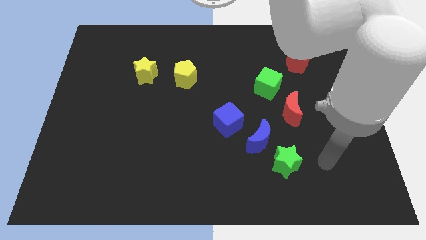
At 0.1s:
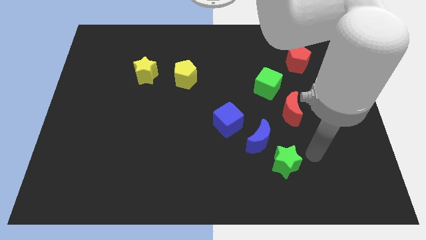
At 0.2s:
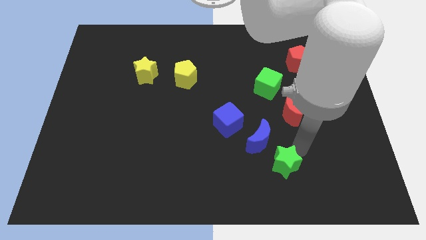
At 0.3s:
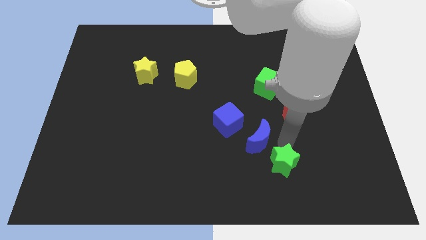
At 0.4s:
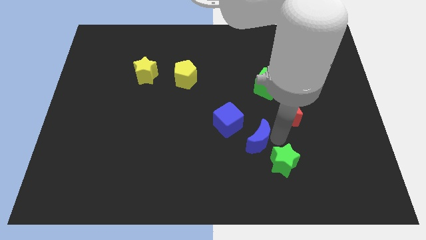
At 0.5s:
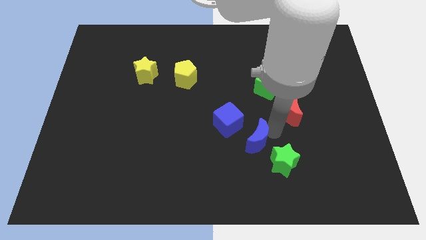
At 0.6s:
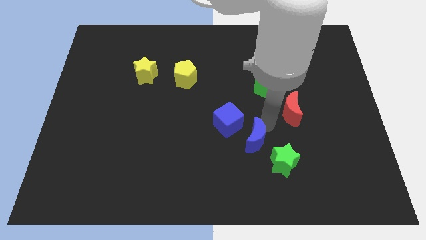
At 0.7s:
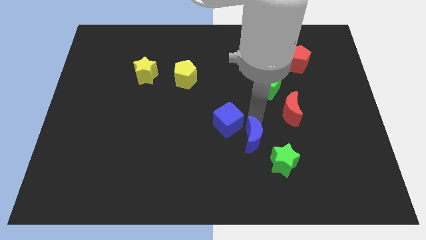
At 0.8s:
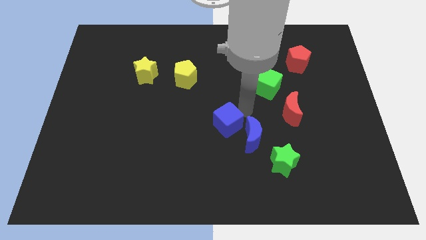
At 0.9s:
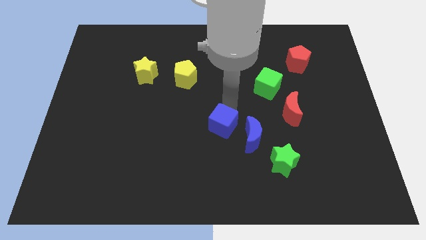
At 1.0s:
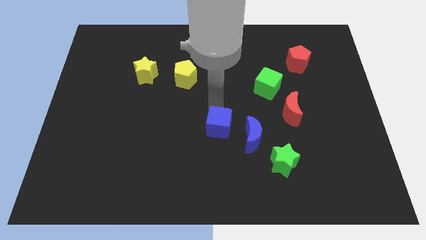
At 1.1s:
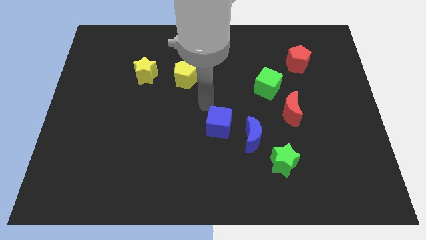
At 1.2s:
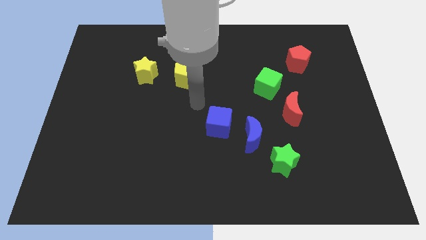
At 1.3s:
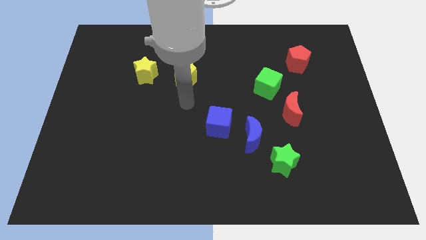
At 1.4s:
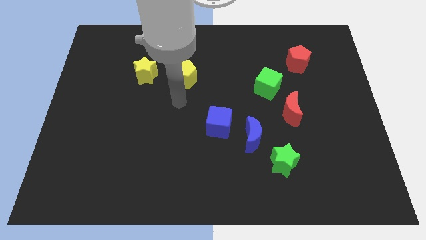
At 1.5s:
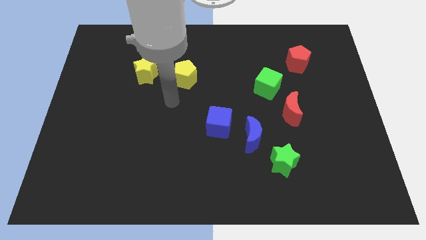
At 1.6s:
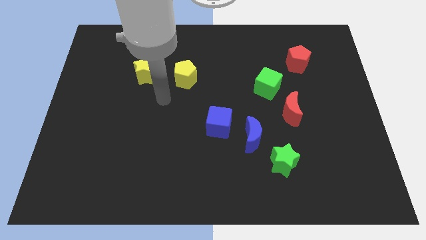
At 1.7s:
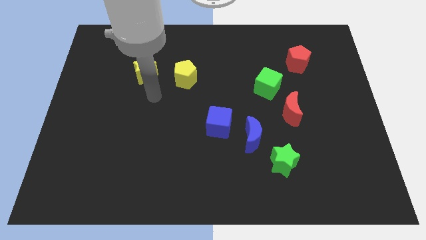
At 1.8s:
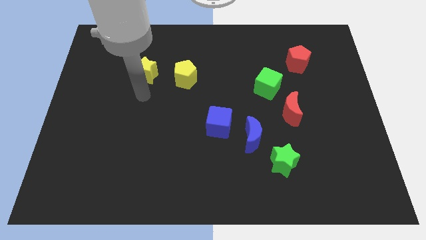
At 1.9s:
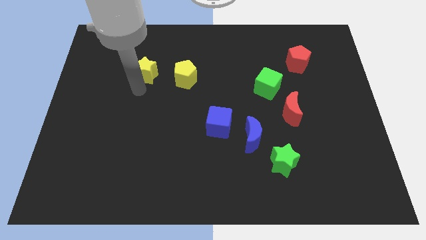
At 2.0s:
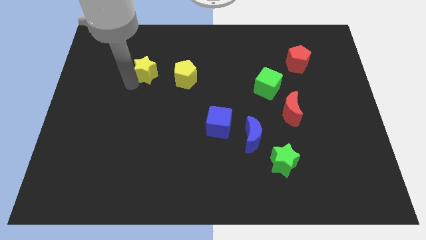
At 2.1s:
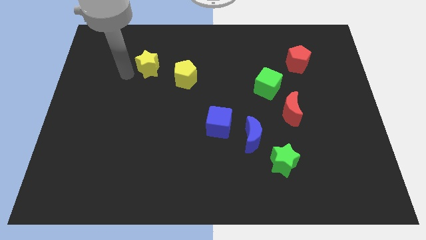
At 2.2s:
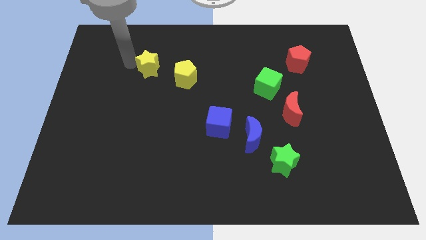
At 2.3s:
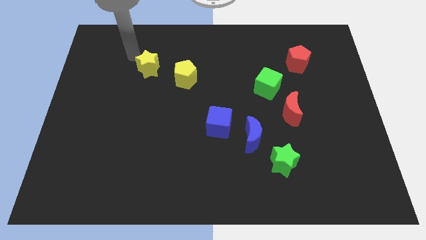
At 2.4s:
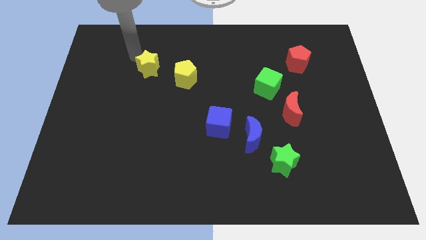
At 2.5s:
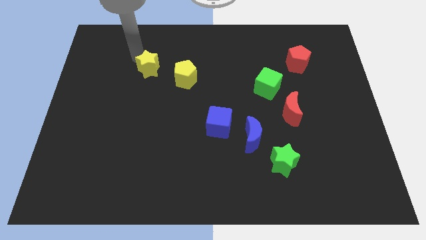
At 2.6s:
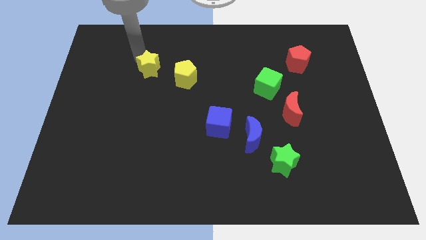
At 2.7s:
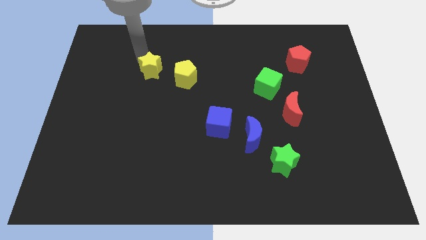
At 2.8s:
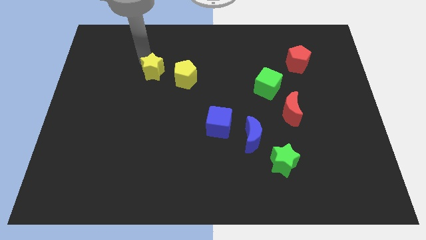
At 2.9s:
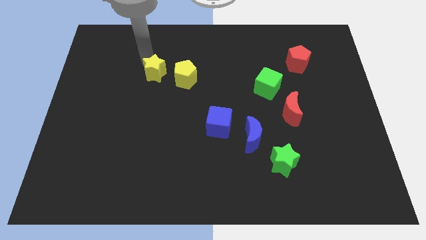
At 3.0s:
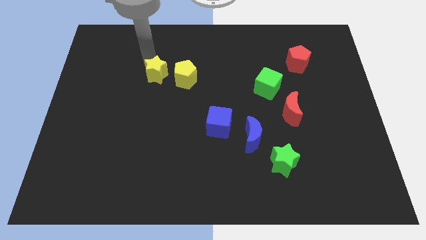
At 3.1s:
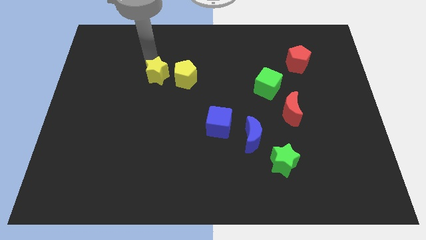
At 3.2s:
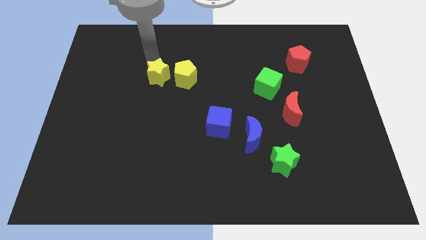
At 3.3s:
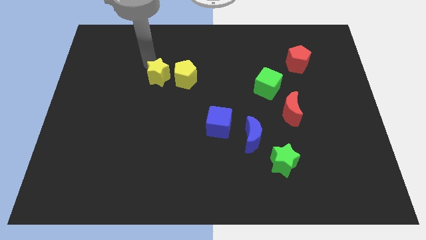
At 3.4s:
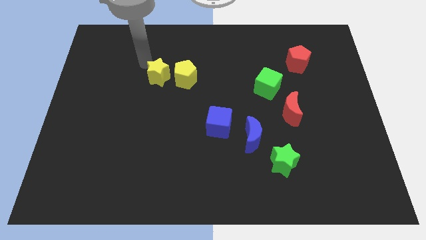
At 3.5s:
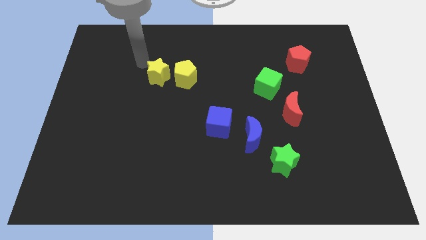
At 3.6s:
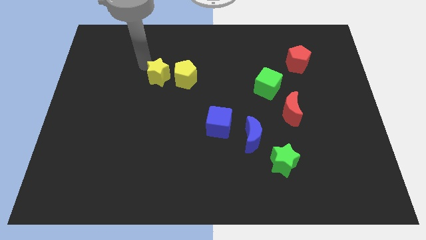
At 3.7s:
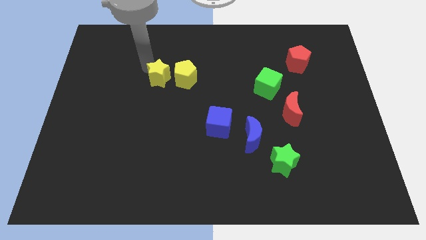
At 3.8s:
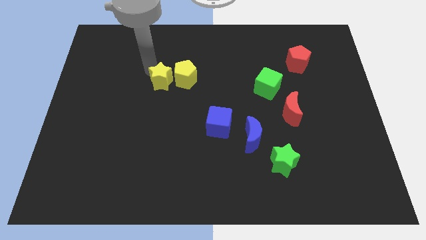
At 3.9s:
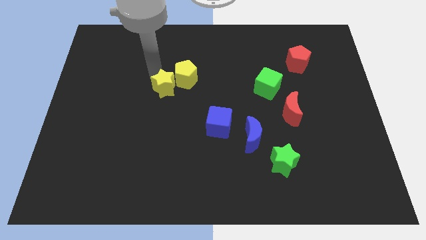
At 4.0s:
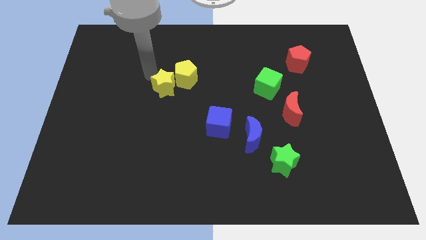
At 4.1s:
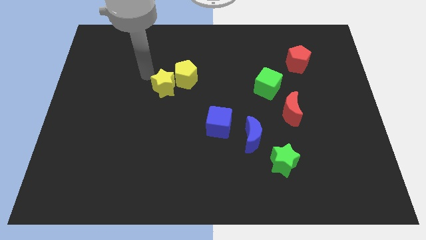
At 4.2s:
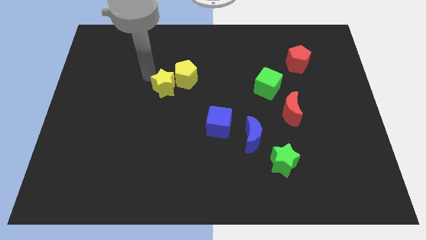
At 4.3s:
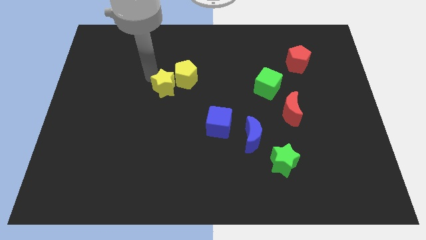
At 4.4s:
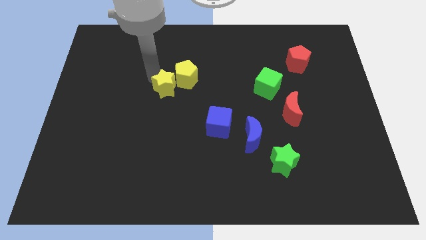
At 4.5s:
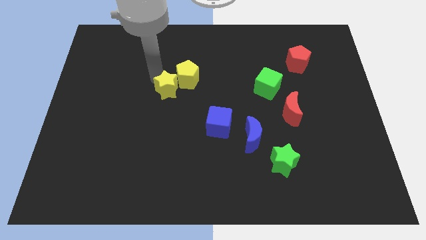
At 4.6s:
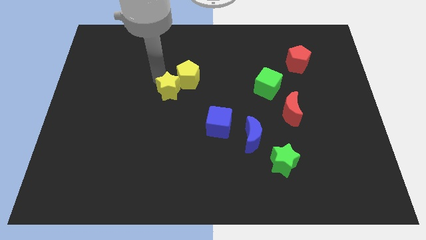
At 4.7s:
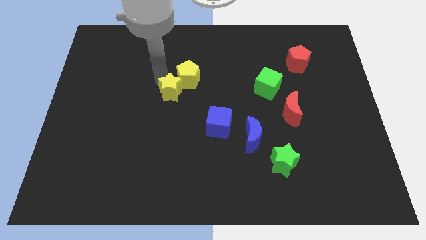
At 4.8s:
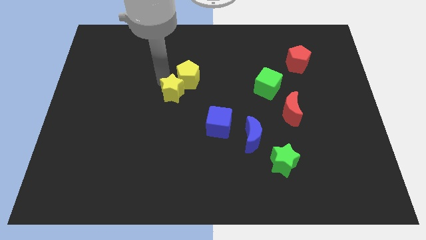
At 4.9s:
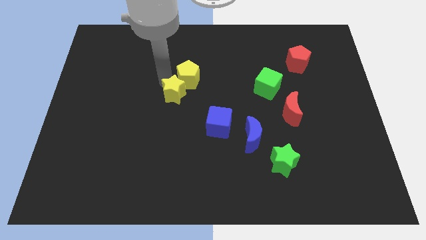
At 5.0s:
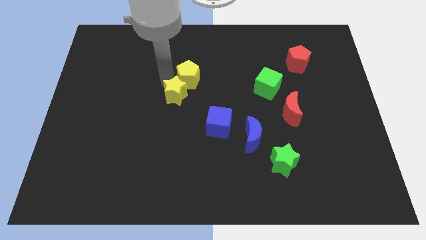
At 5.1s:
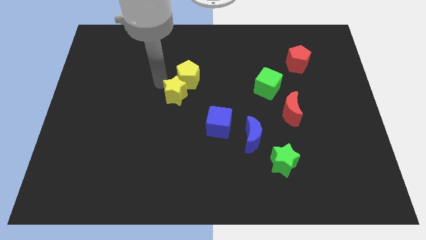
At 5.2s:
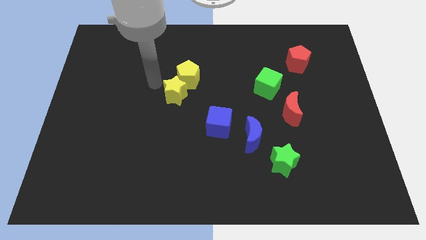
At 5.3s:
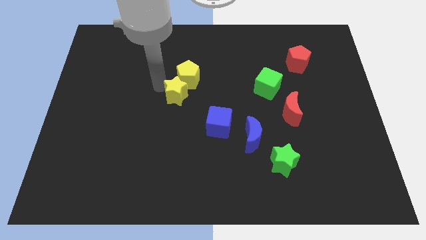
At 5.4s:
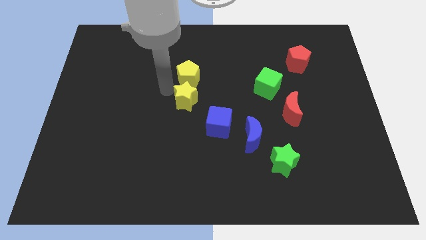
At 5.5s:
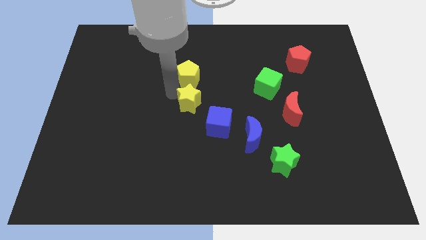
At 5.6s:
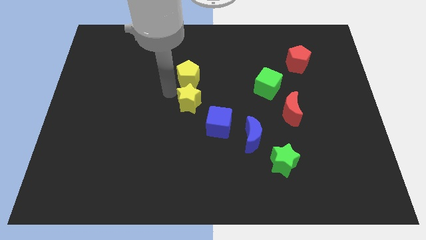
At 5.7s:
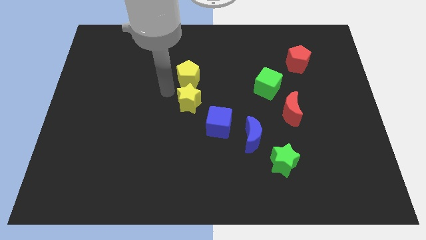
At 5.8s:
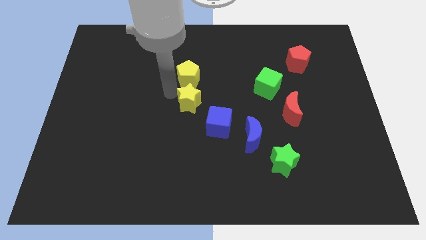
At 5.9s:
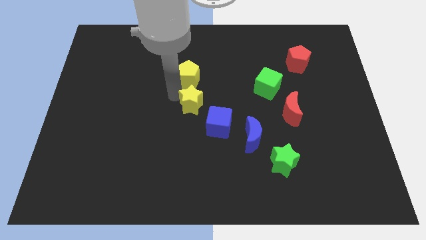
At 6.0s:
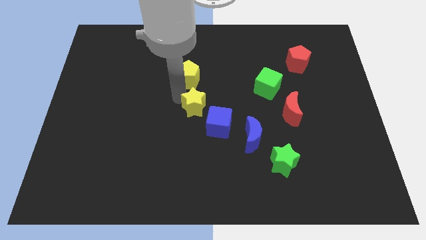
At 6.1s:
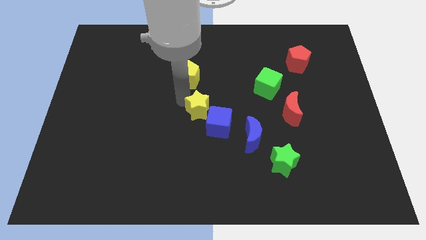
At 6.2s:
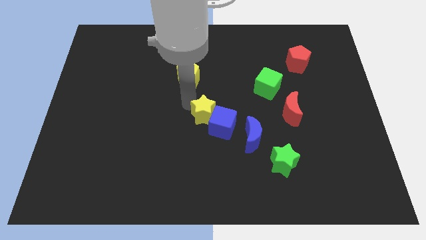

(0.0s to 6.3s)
slide the yellow star next to the blue cube
